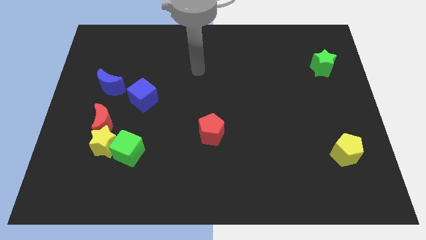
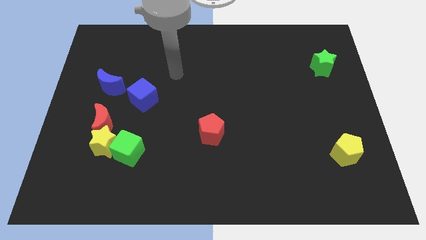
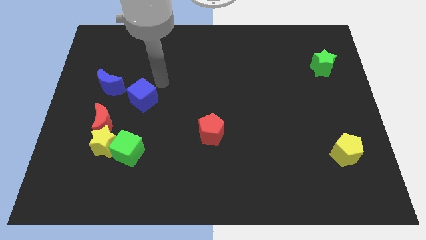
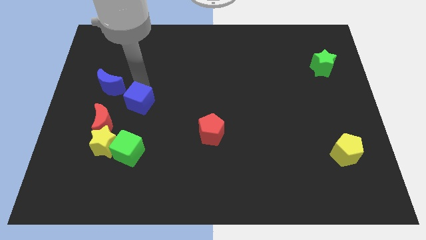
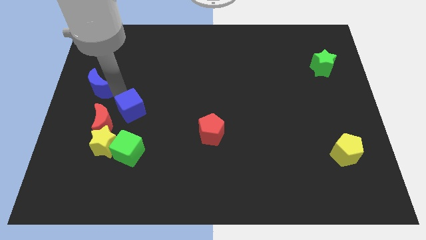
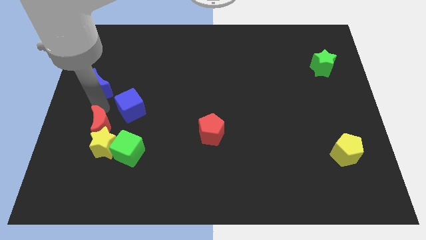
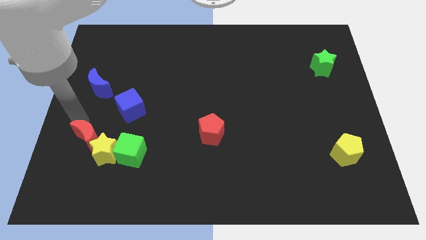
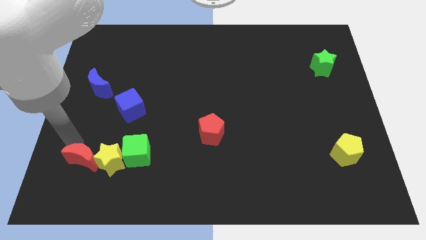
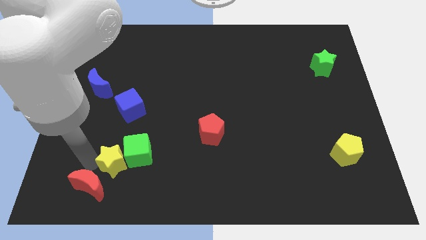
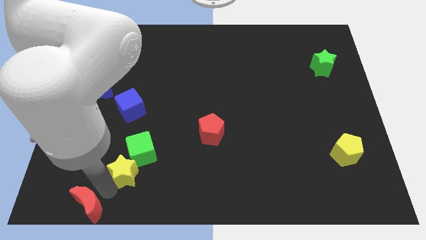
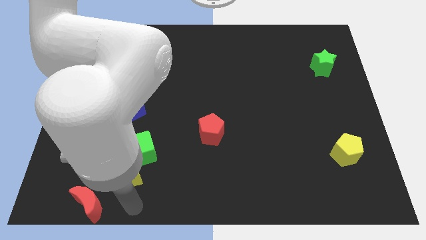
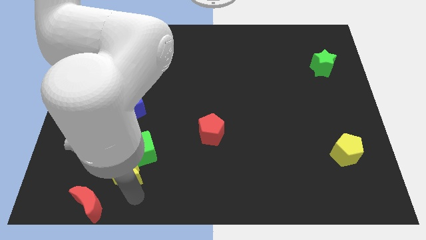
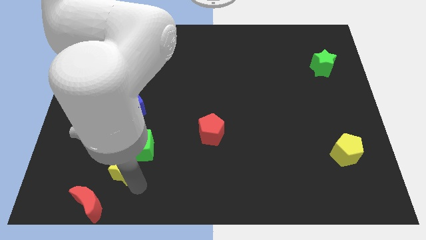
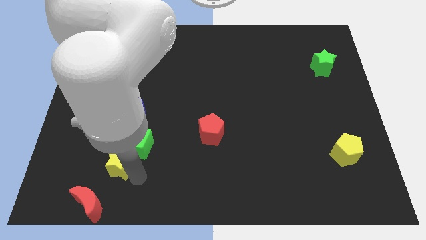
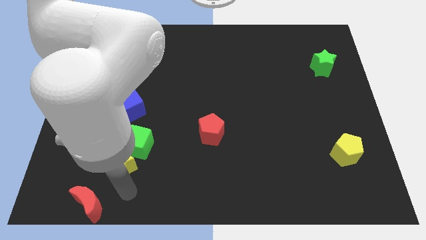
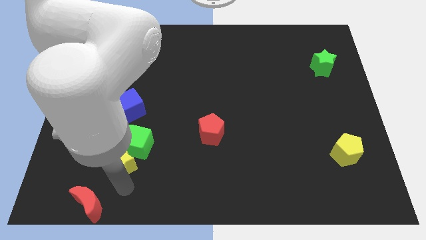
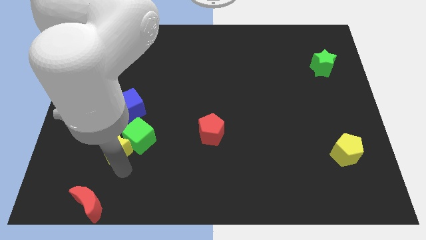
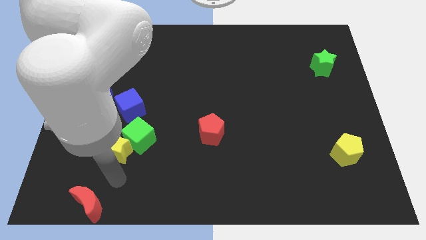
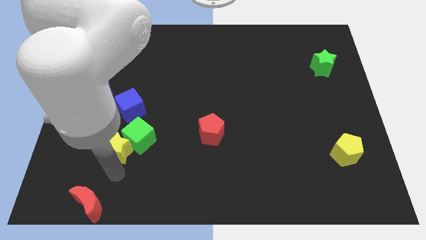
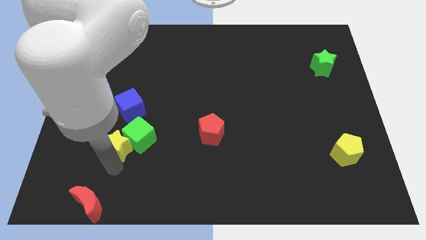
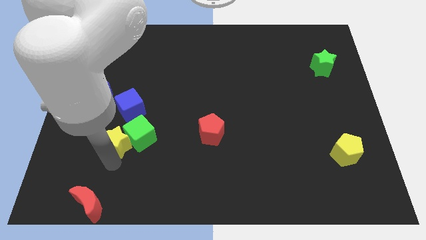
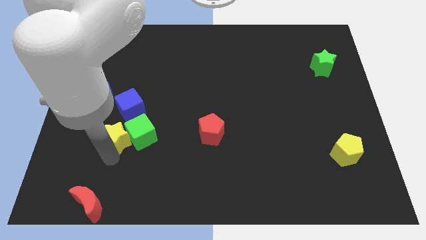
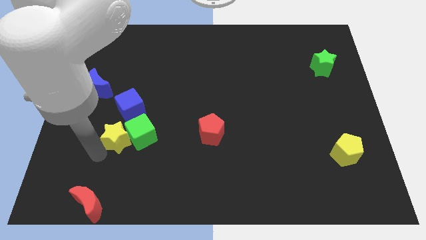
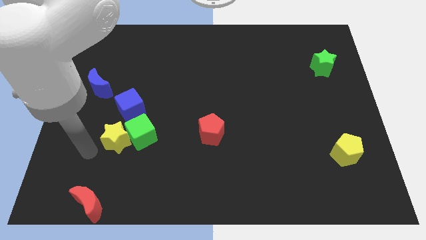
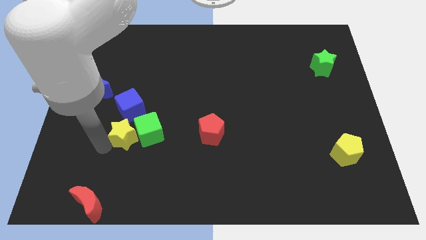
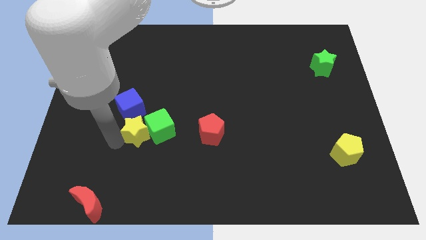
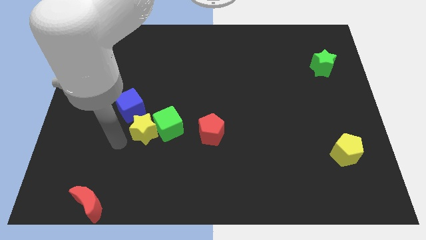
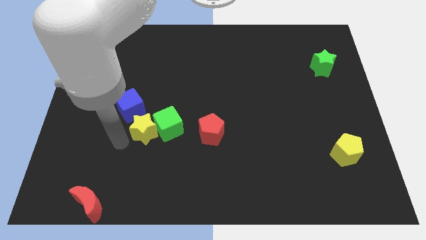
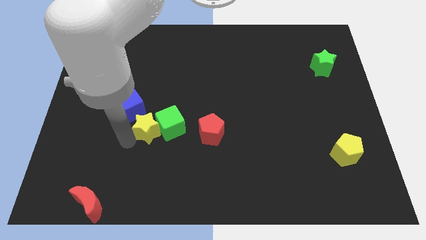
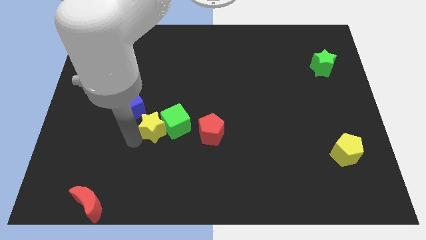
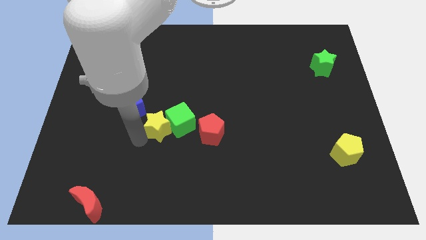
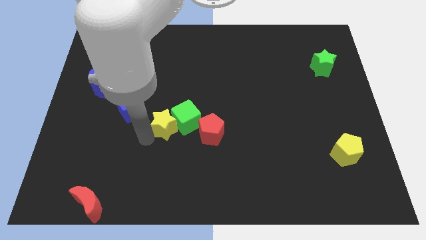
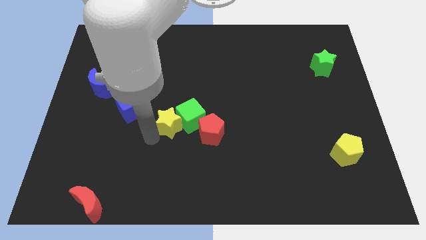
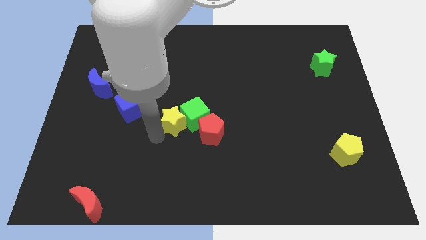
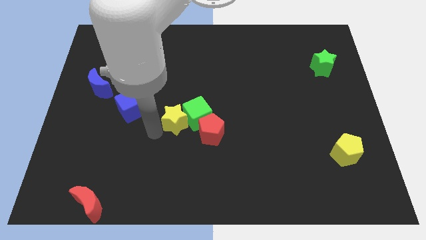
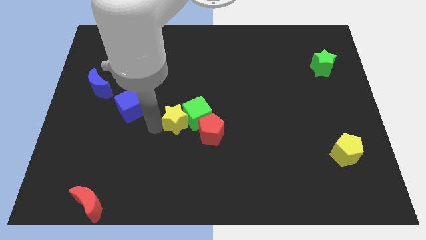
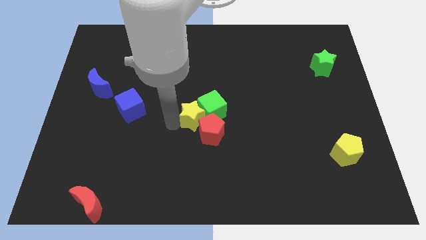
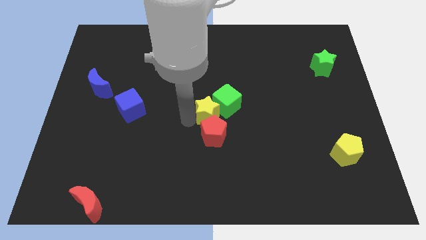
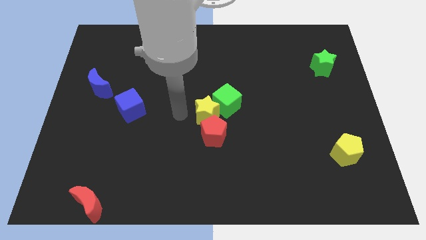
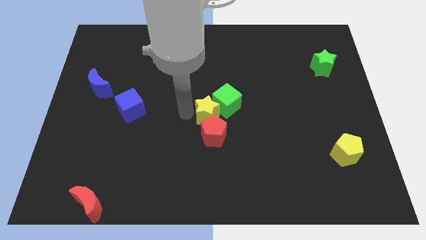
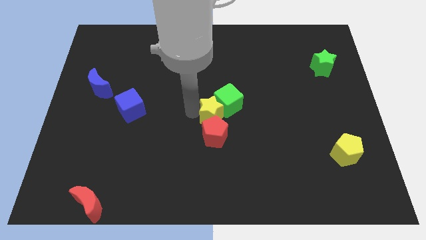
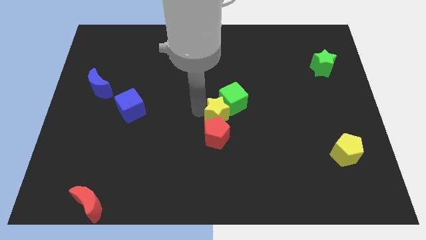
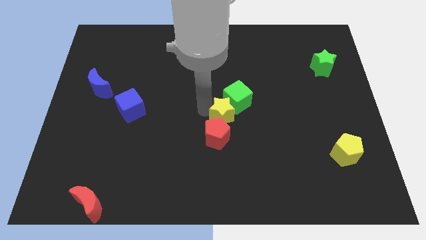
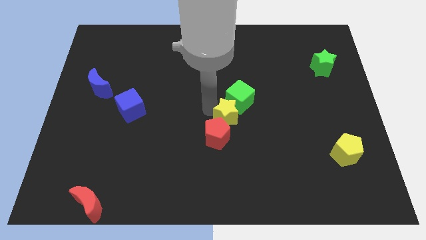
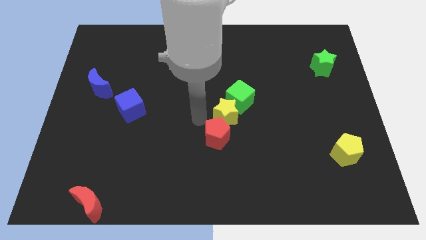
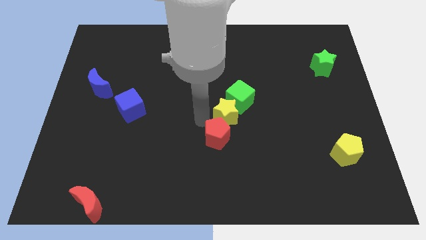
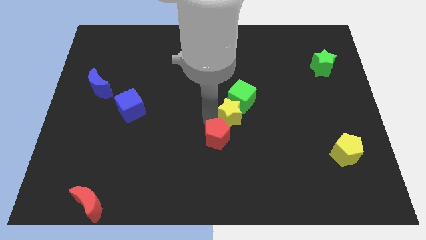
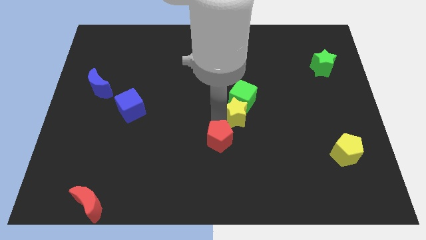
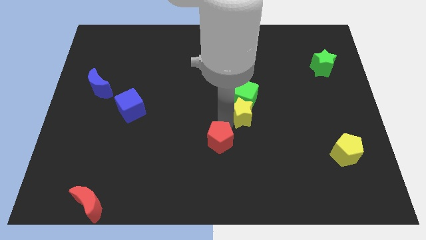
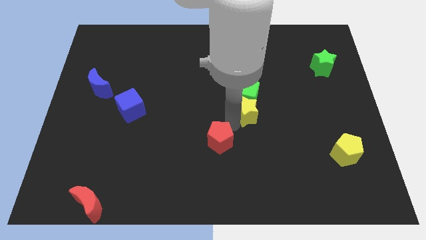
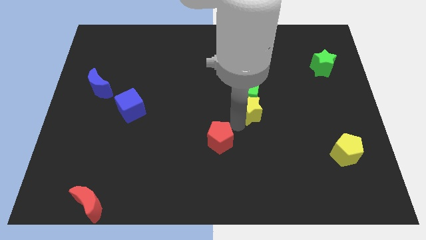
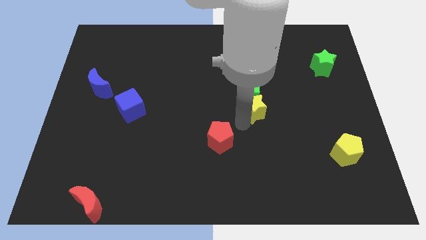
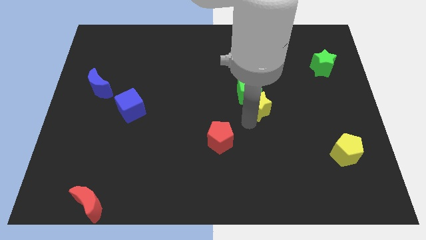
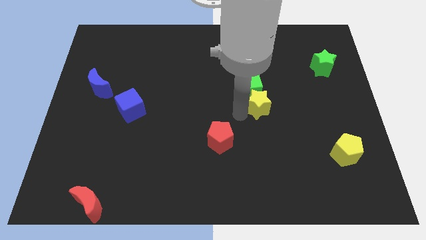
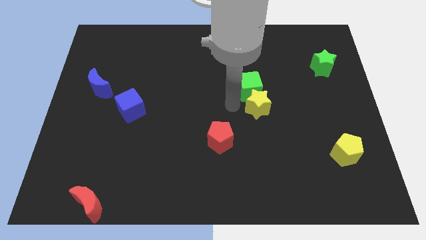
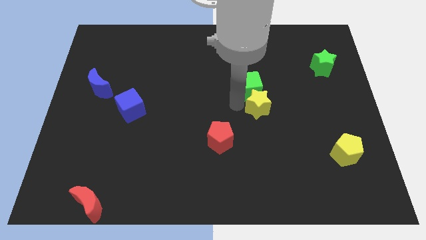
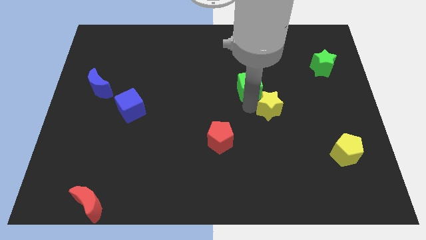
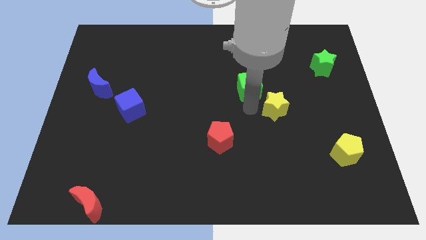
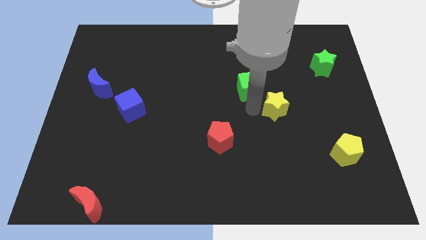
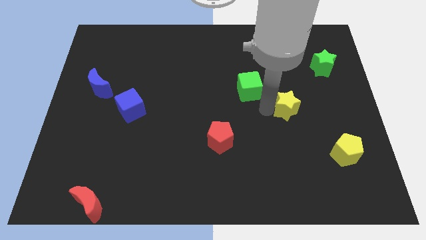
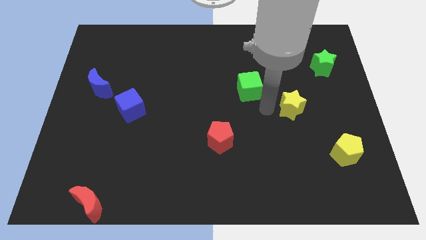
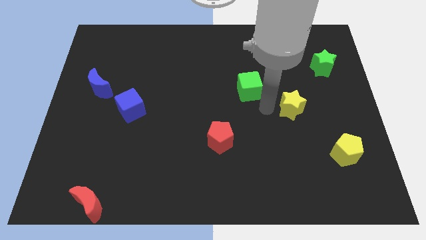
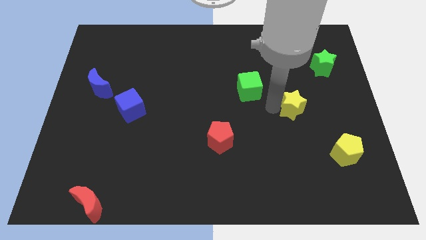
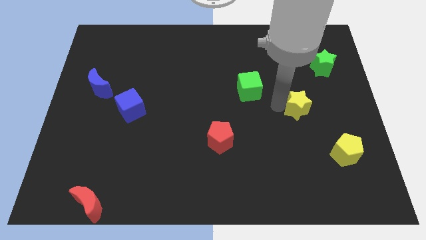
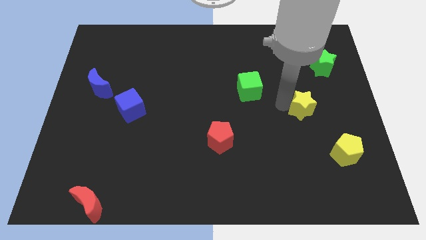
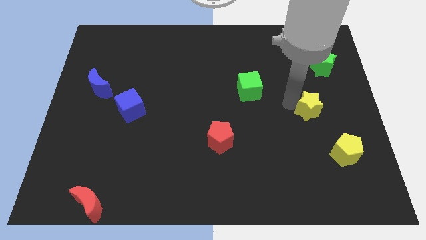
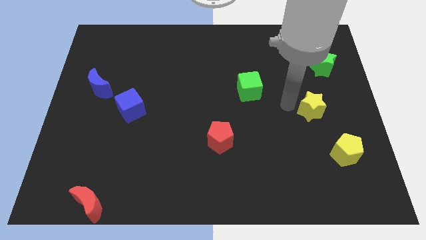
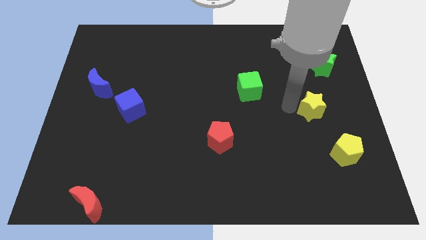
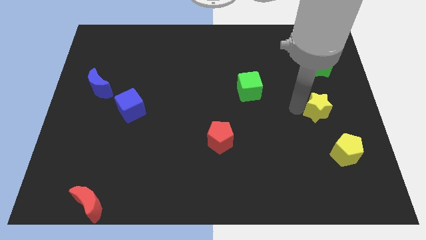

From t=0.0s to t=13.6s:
move the yellow star to the top side of the yellow pentagon
